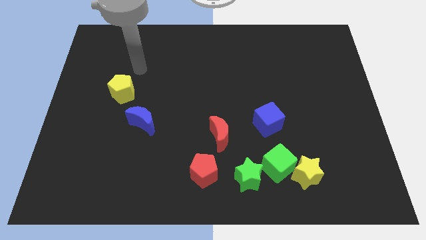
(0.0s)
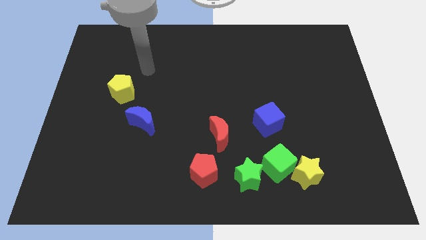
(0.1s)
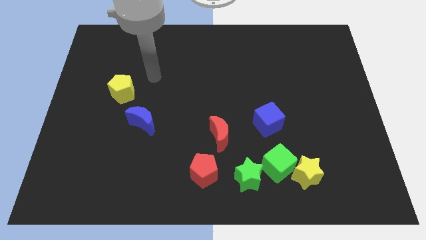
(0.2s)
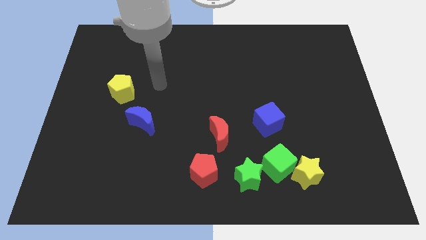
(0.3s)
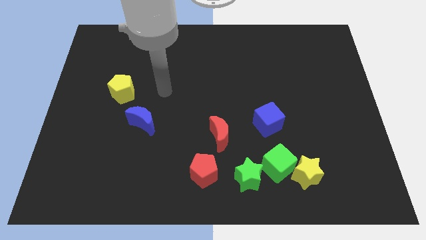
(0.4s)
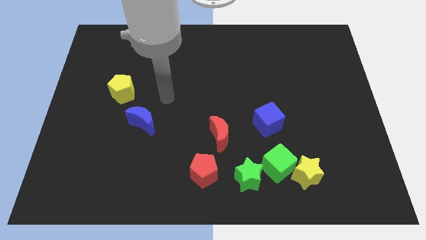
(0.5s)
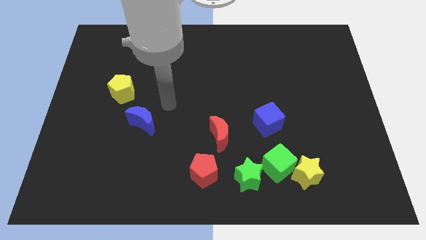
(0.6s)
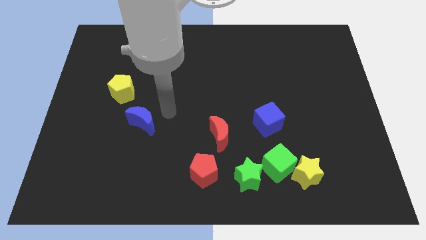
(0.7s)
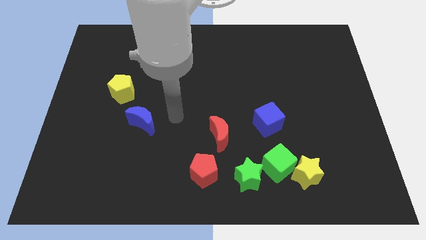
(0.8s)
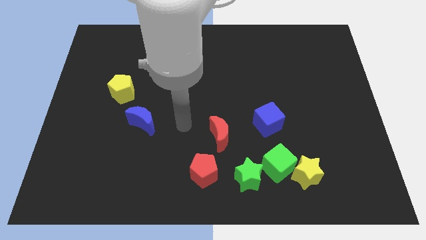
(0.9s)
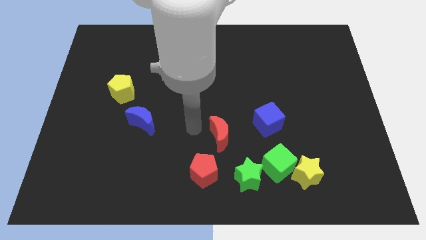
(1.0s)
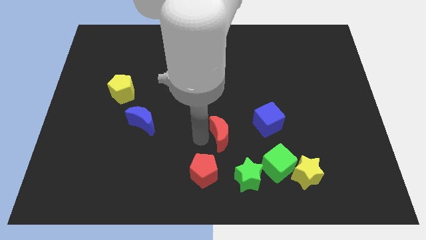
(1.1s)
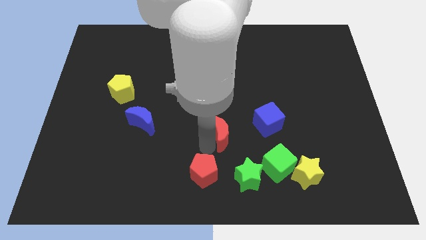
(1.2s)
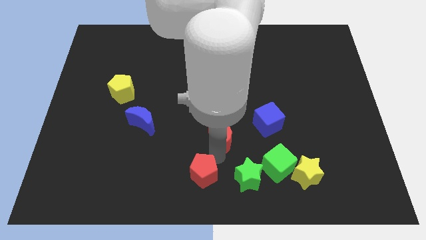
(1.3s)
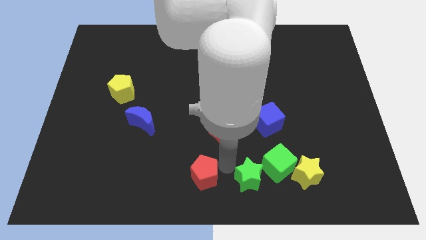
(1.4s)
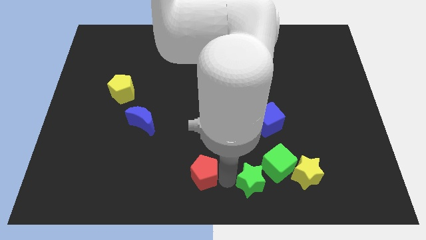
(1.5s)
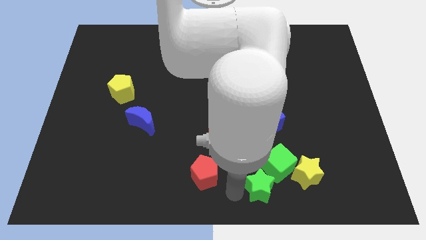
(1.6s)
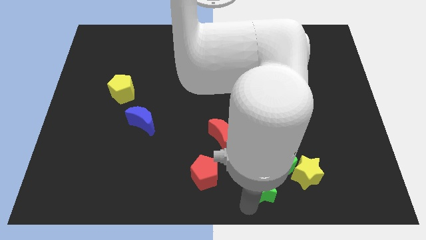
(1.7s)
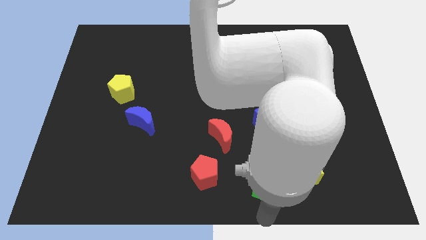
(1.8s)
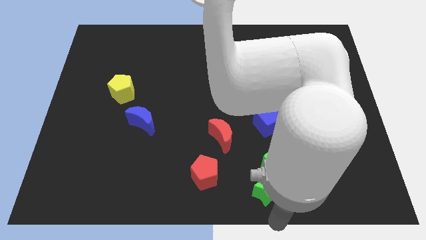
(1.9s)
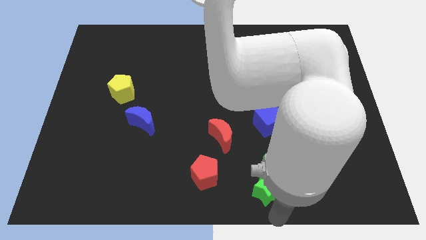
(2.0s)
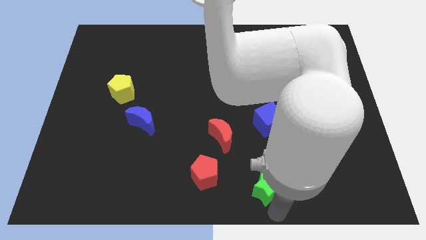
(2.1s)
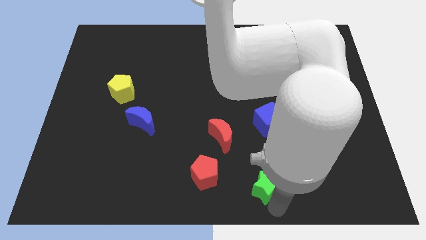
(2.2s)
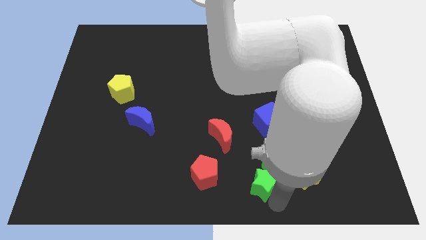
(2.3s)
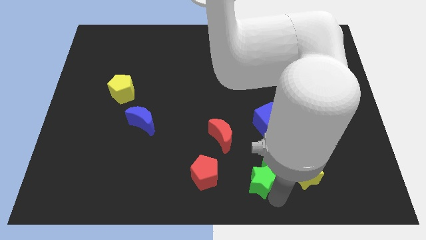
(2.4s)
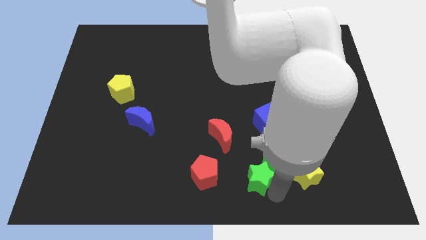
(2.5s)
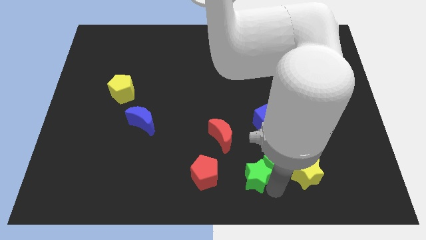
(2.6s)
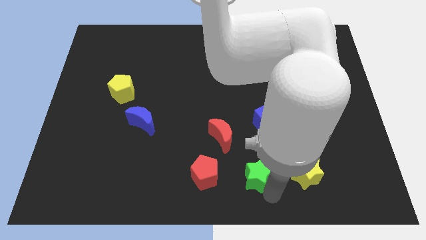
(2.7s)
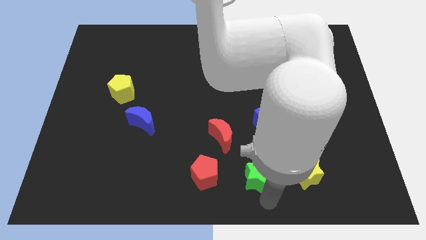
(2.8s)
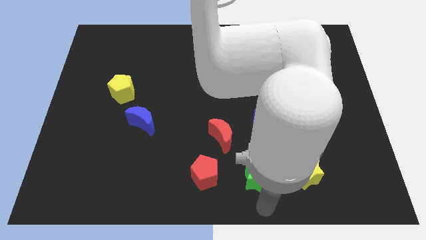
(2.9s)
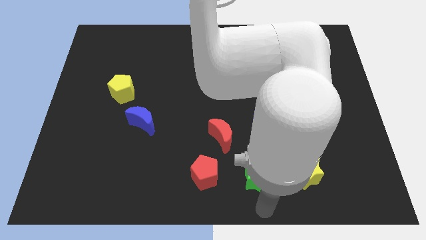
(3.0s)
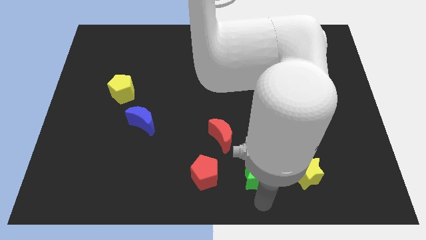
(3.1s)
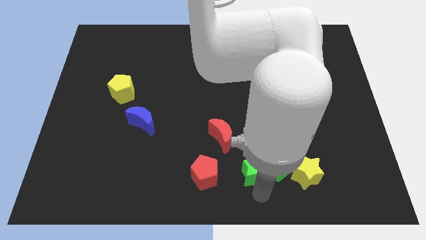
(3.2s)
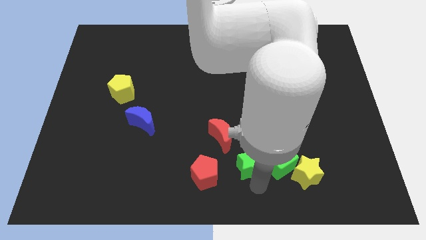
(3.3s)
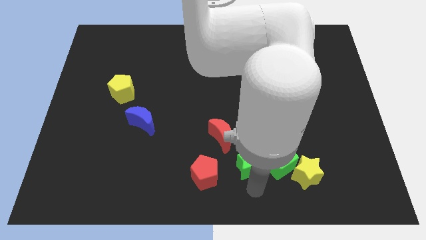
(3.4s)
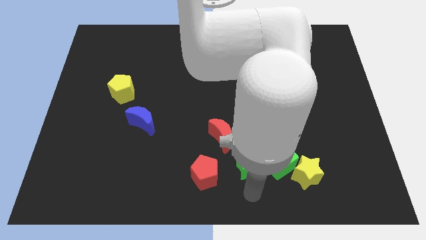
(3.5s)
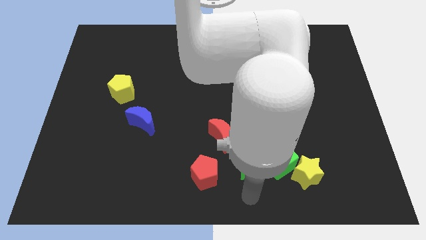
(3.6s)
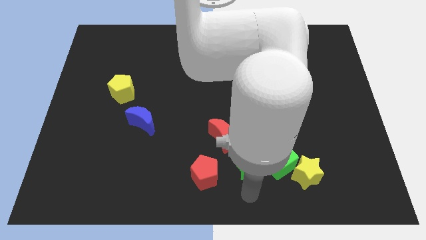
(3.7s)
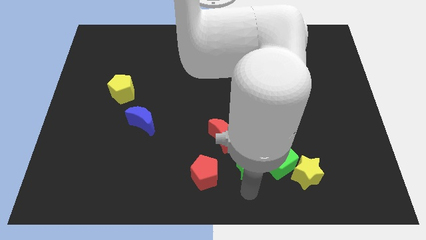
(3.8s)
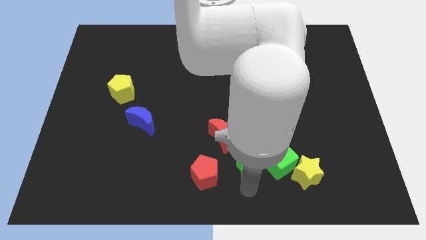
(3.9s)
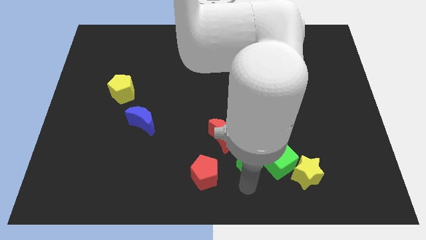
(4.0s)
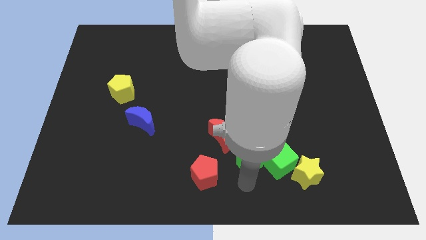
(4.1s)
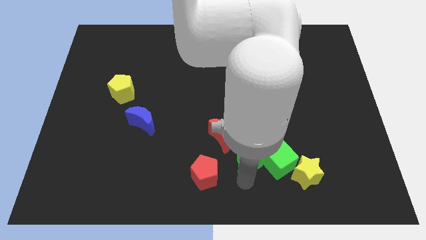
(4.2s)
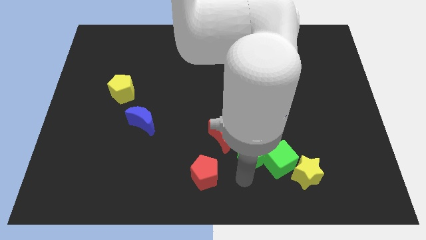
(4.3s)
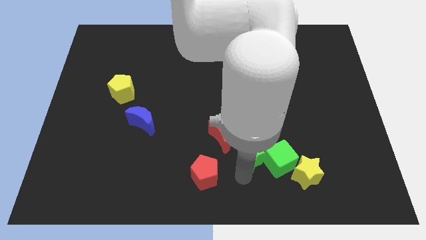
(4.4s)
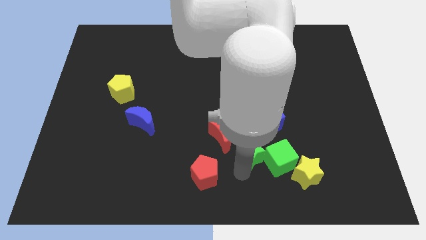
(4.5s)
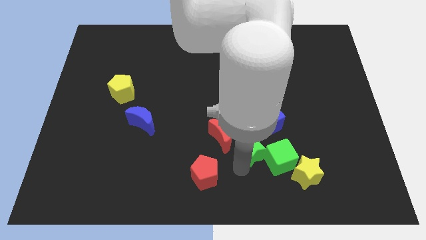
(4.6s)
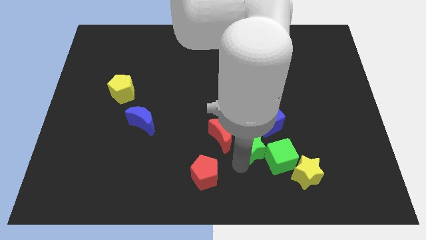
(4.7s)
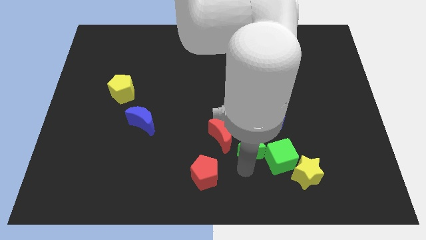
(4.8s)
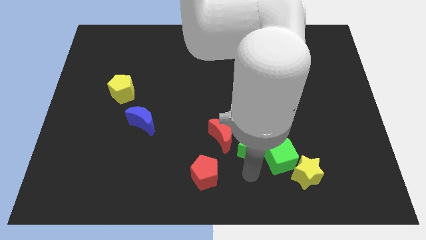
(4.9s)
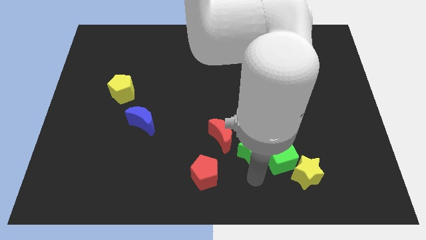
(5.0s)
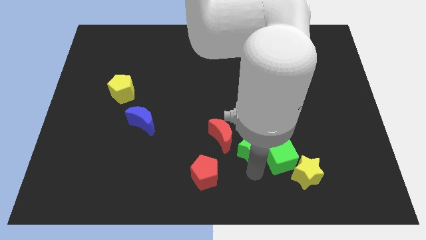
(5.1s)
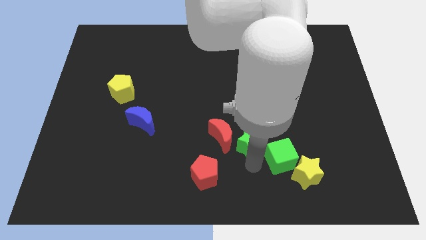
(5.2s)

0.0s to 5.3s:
slightly move the green star upwards

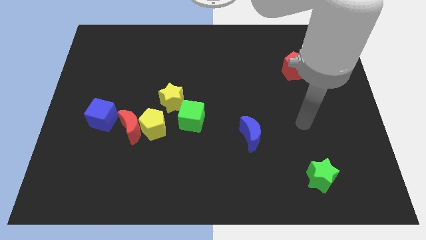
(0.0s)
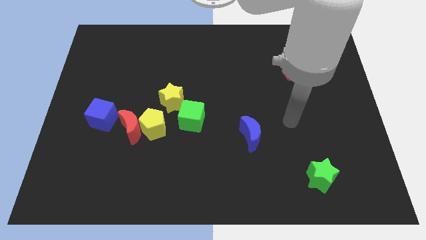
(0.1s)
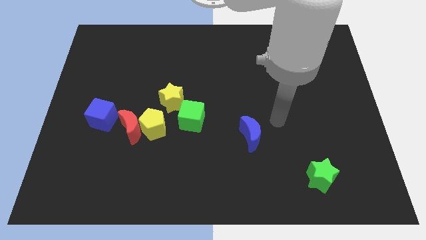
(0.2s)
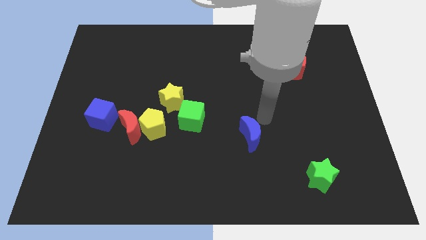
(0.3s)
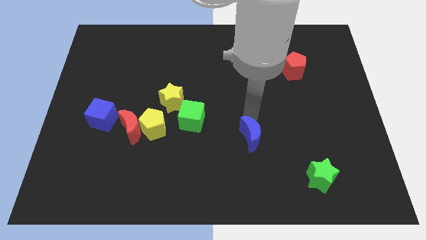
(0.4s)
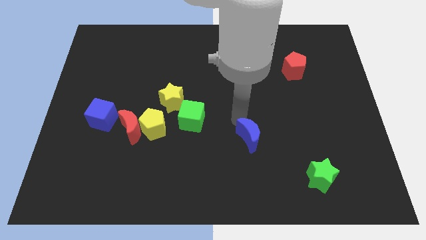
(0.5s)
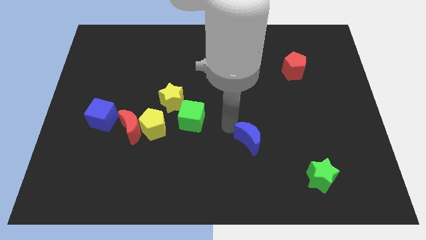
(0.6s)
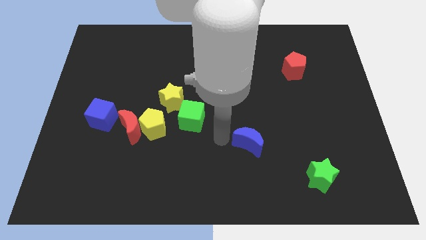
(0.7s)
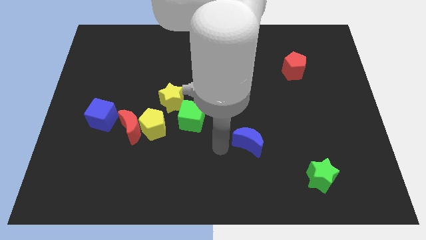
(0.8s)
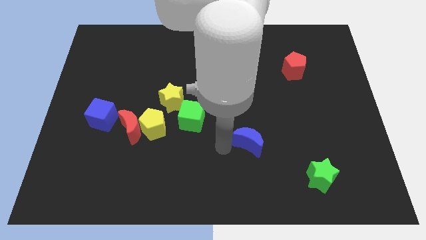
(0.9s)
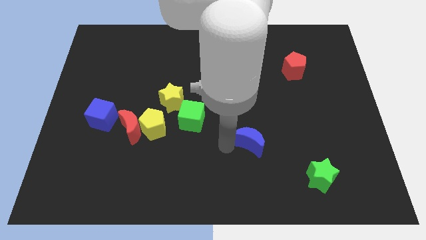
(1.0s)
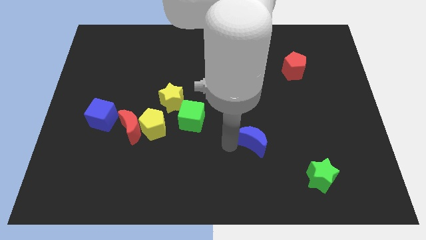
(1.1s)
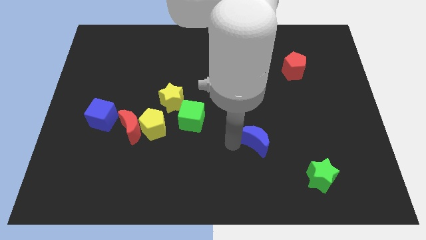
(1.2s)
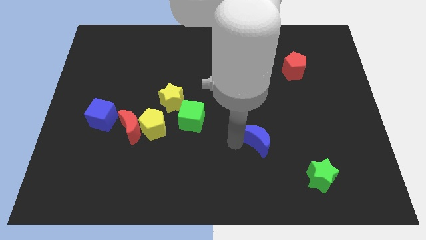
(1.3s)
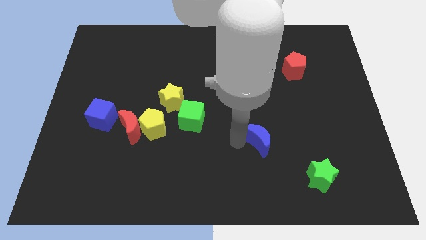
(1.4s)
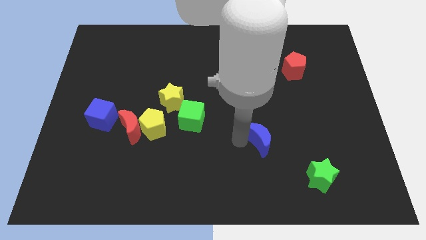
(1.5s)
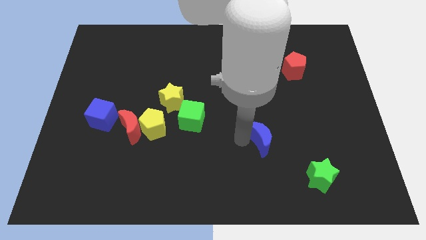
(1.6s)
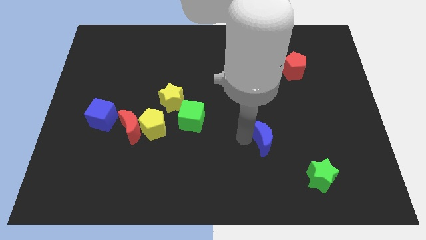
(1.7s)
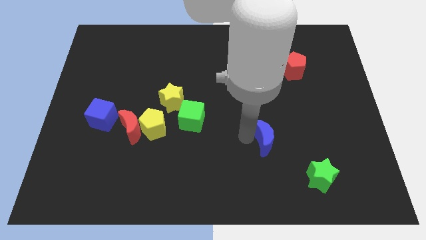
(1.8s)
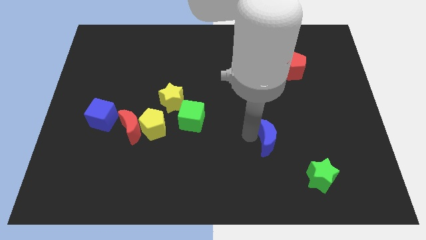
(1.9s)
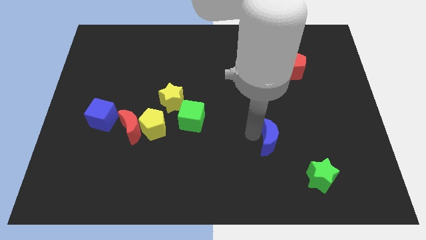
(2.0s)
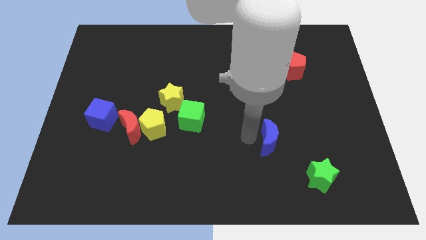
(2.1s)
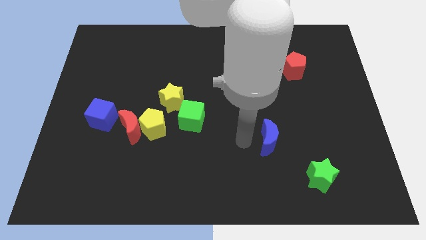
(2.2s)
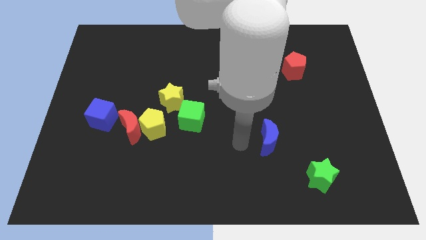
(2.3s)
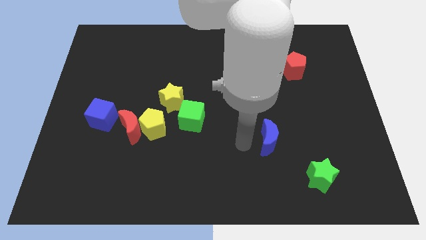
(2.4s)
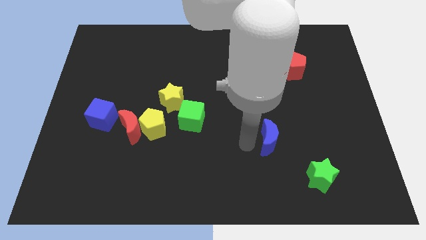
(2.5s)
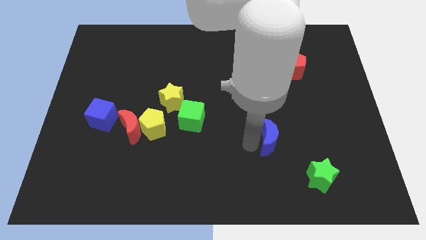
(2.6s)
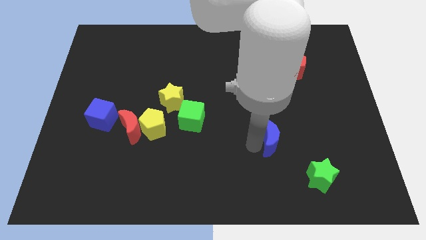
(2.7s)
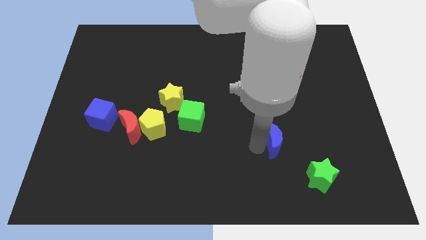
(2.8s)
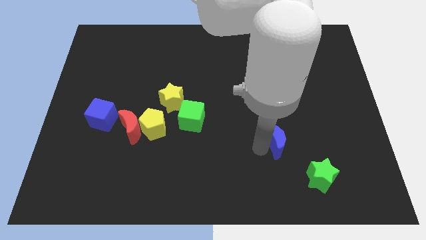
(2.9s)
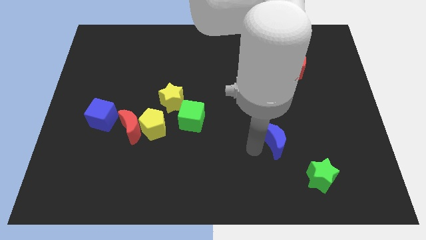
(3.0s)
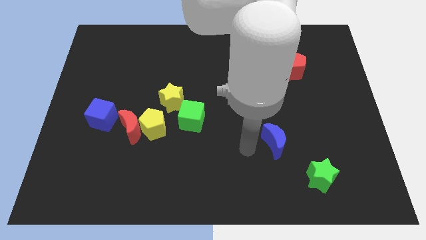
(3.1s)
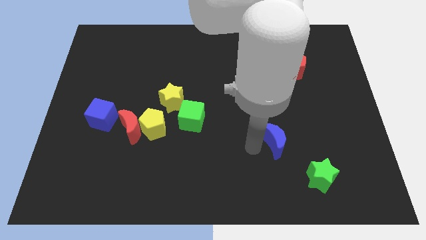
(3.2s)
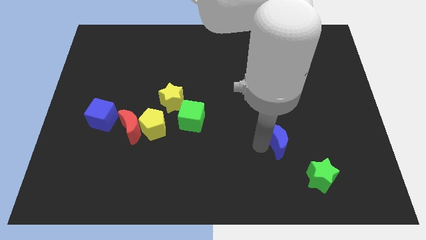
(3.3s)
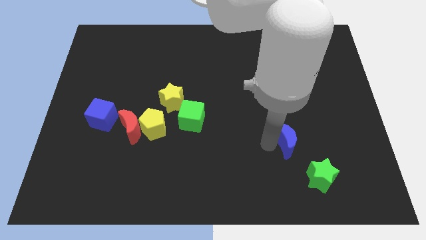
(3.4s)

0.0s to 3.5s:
move the blue moon somewhat to the right
